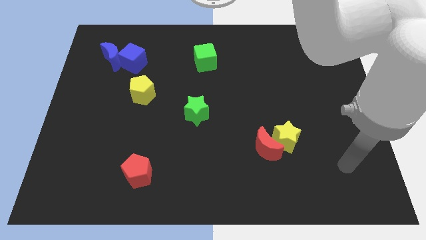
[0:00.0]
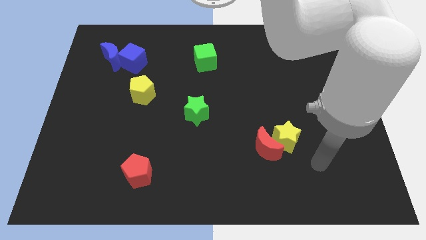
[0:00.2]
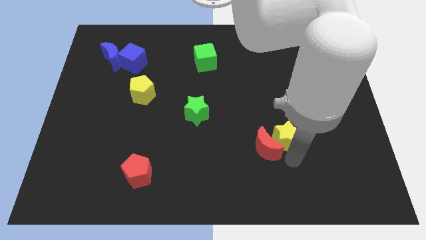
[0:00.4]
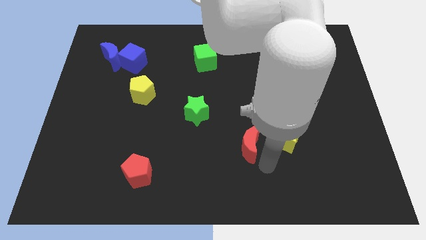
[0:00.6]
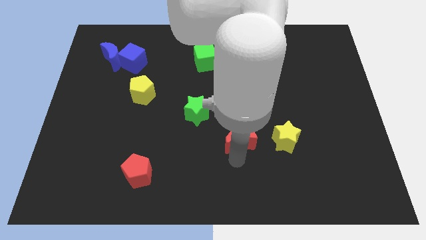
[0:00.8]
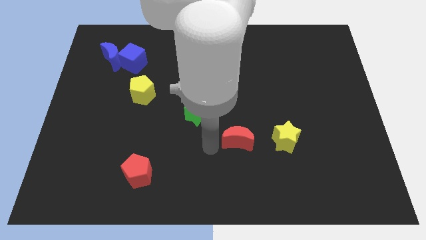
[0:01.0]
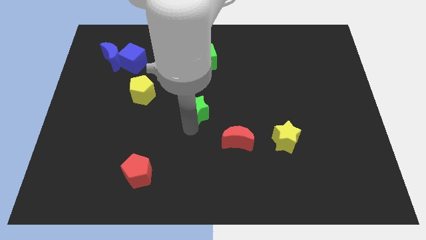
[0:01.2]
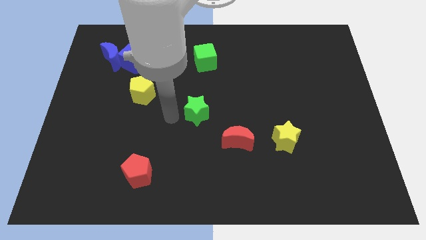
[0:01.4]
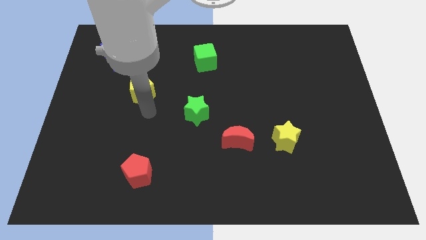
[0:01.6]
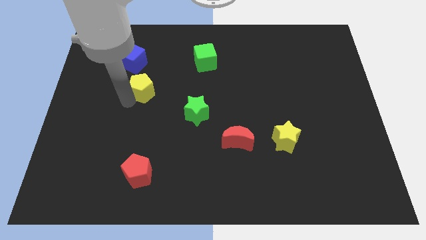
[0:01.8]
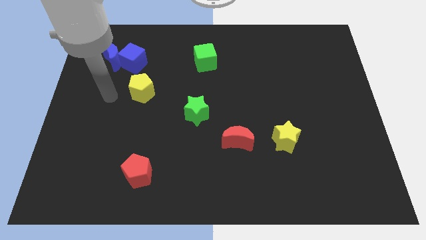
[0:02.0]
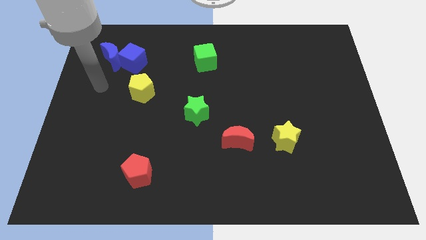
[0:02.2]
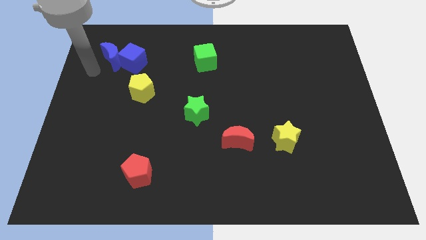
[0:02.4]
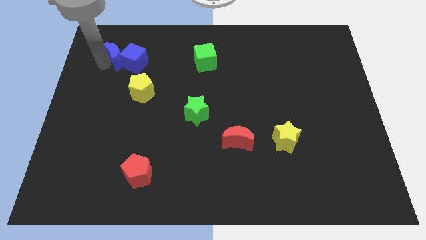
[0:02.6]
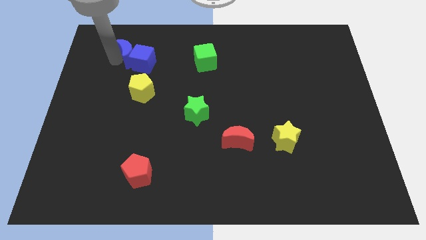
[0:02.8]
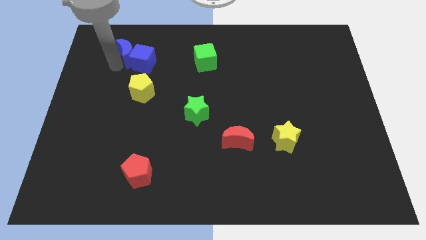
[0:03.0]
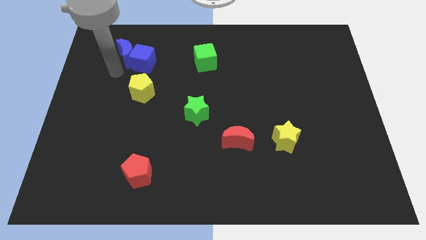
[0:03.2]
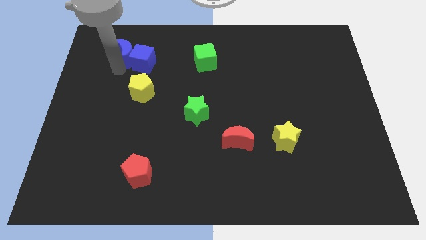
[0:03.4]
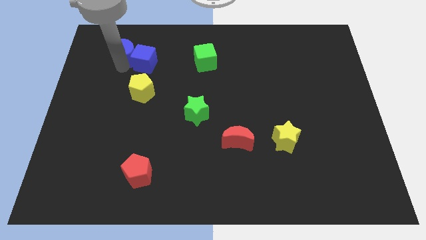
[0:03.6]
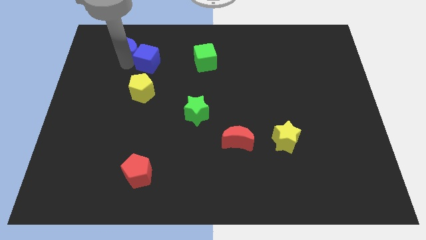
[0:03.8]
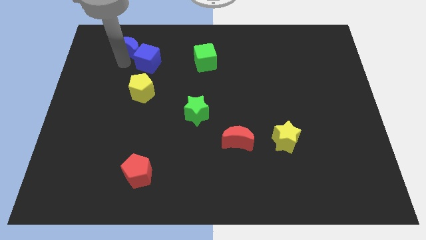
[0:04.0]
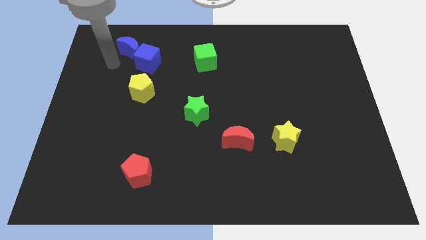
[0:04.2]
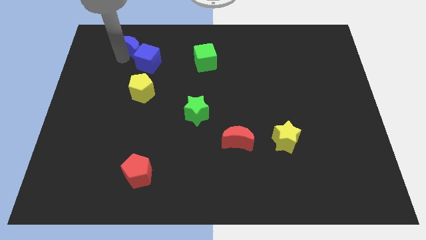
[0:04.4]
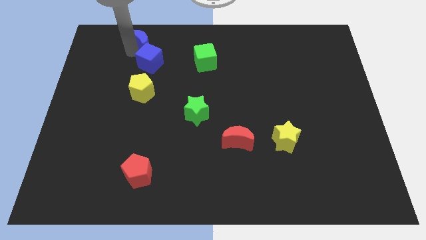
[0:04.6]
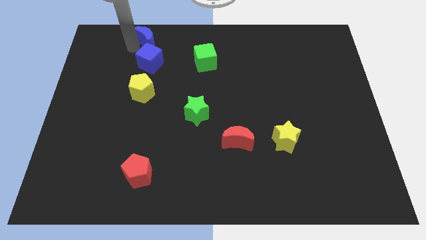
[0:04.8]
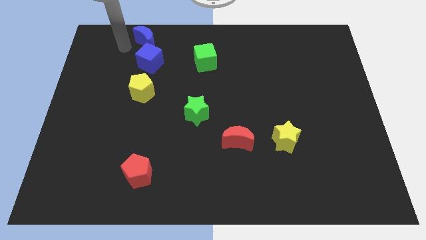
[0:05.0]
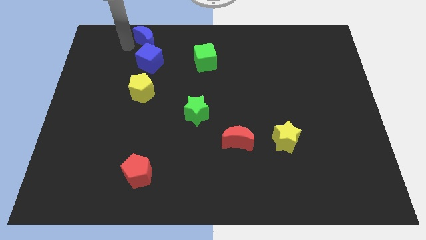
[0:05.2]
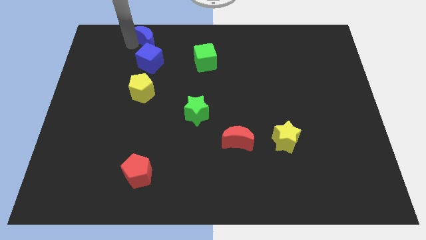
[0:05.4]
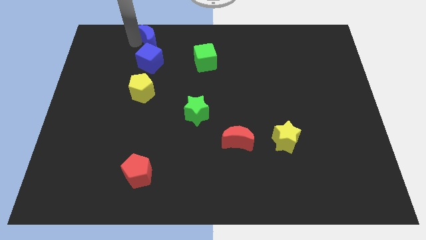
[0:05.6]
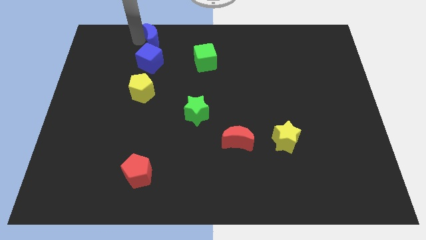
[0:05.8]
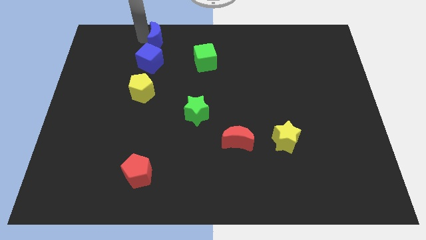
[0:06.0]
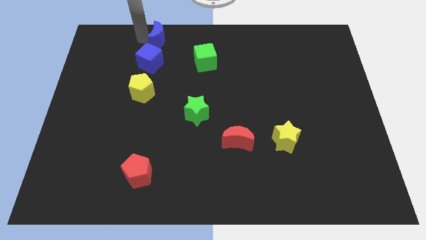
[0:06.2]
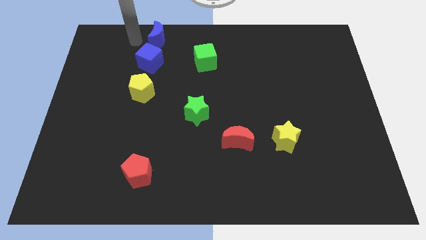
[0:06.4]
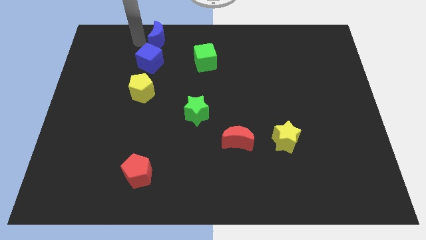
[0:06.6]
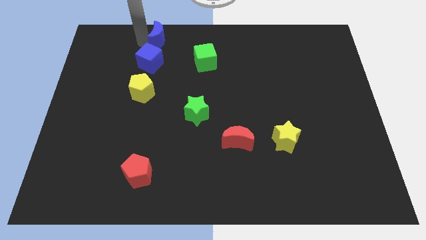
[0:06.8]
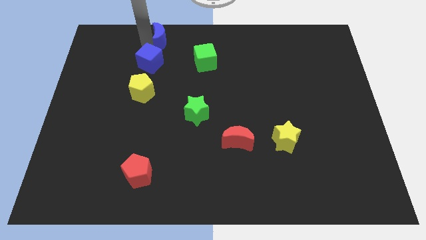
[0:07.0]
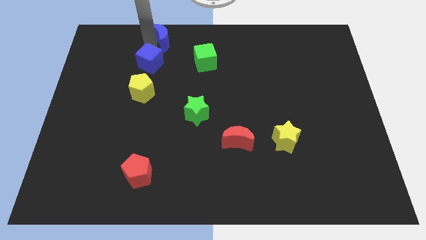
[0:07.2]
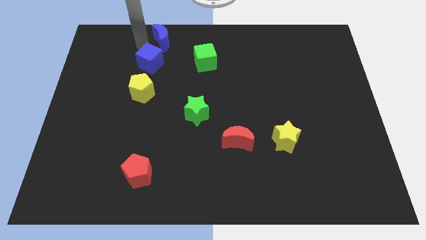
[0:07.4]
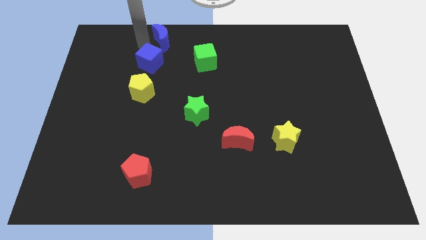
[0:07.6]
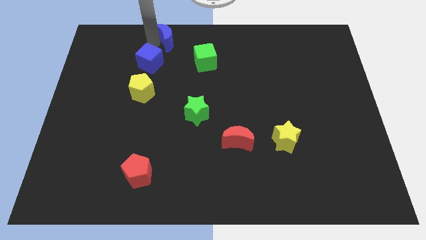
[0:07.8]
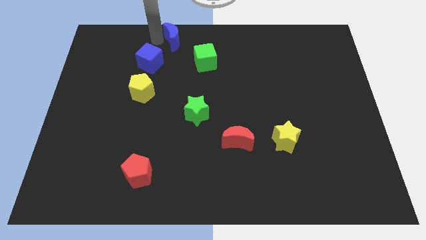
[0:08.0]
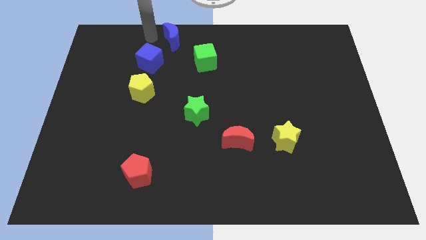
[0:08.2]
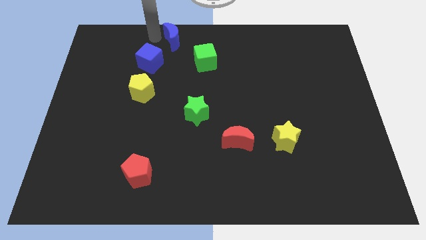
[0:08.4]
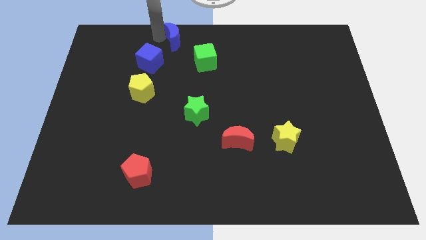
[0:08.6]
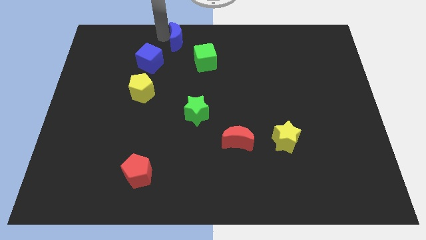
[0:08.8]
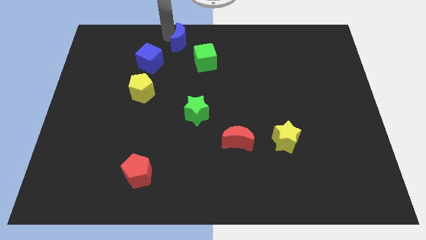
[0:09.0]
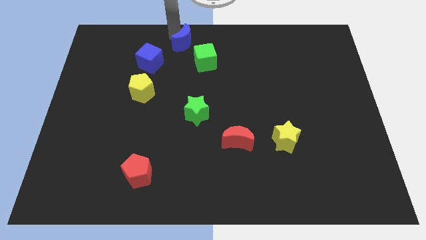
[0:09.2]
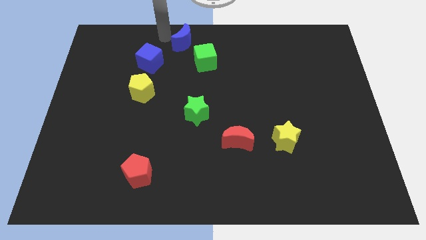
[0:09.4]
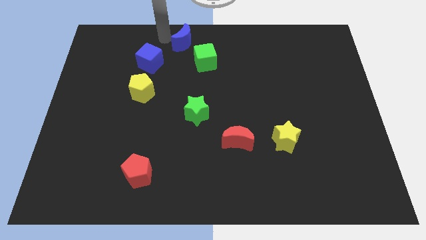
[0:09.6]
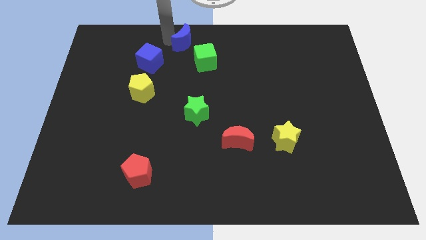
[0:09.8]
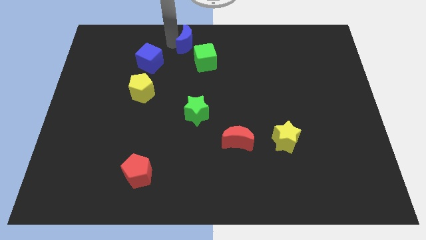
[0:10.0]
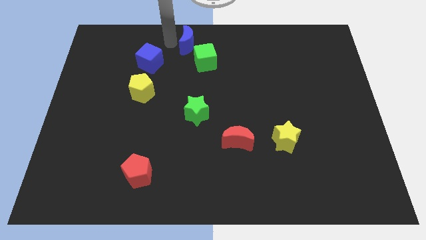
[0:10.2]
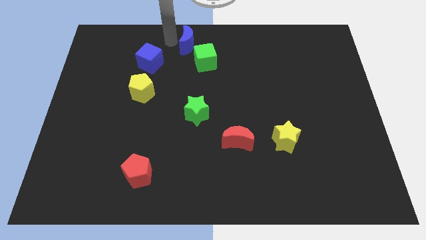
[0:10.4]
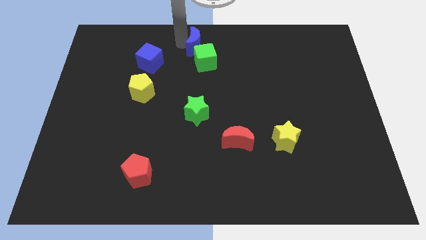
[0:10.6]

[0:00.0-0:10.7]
slide the blue moon to the right

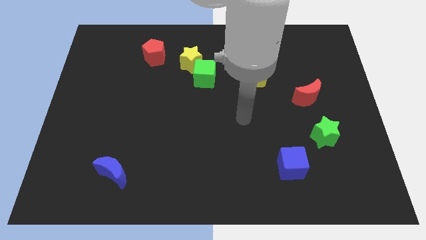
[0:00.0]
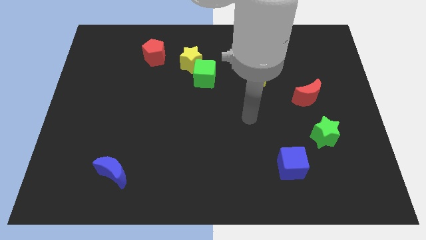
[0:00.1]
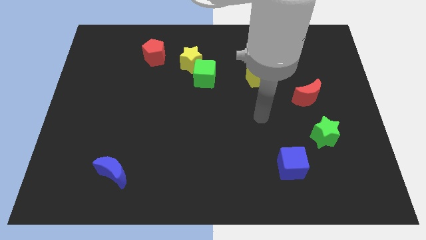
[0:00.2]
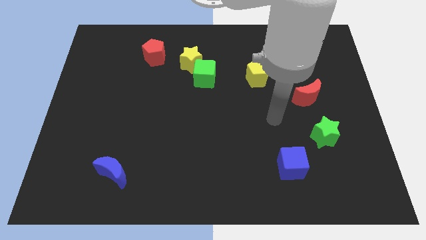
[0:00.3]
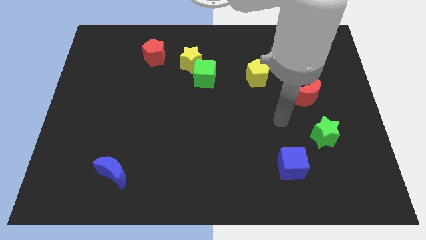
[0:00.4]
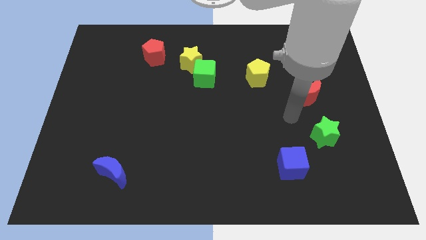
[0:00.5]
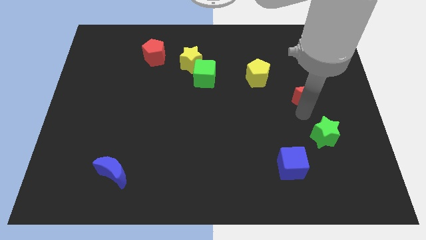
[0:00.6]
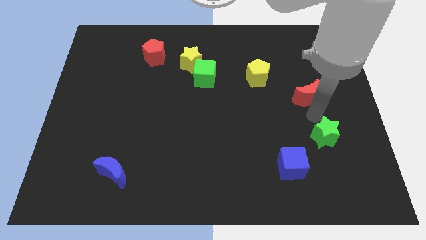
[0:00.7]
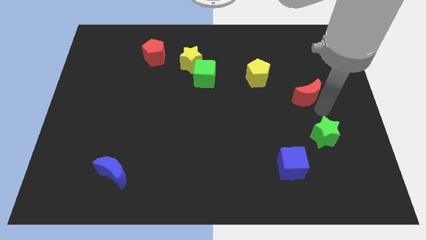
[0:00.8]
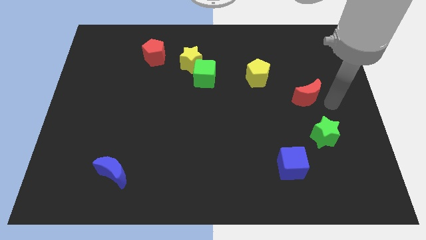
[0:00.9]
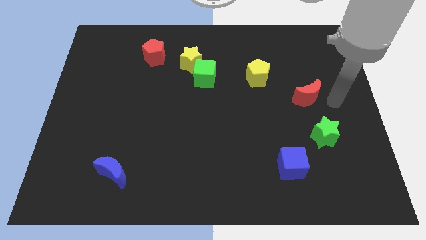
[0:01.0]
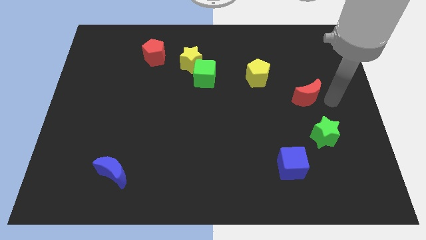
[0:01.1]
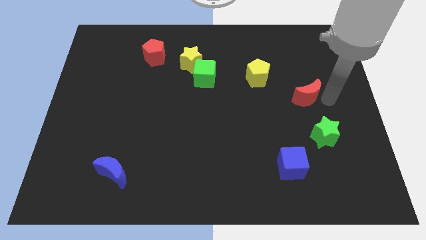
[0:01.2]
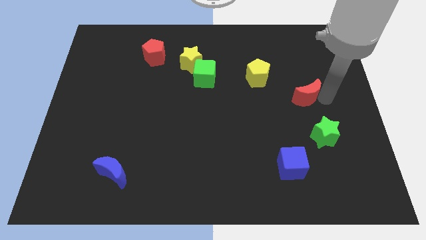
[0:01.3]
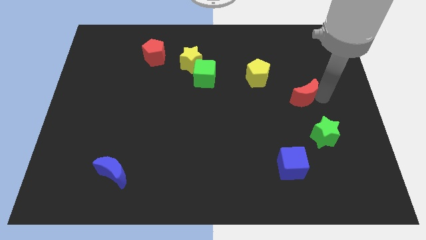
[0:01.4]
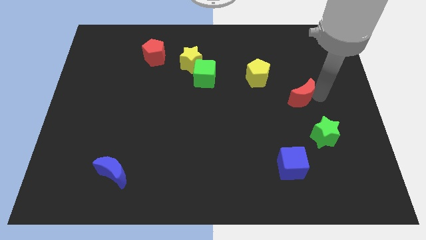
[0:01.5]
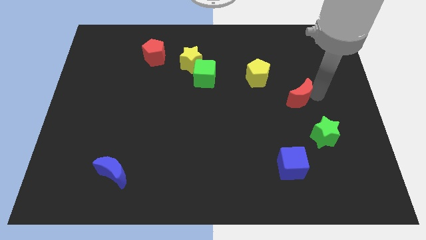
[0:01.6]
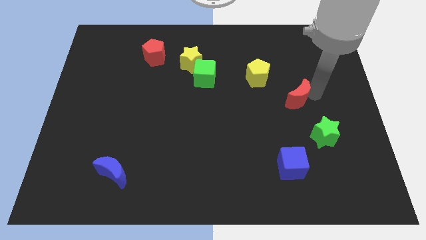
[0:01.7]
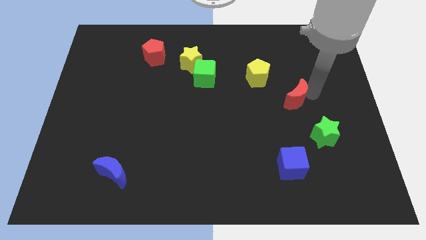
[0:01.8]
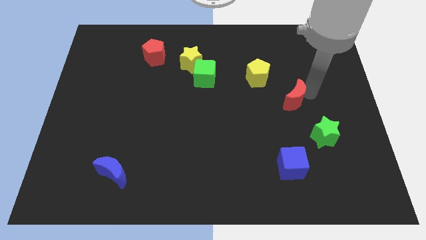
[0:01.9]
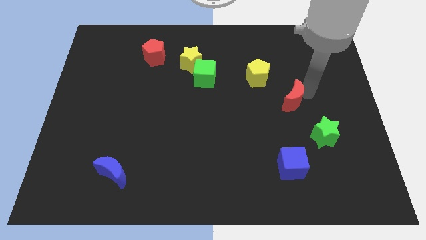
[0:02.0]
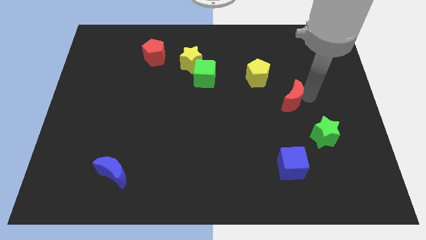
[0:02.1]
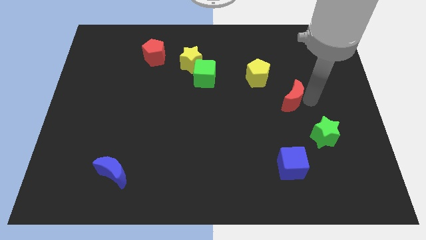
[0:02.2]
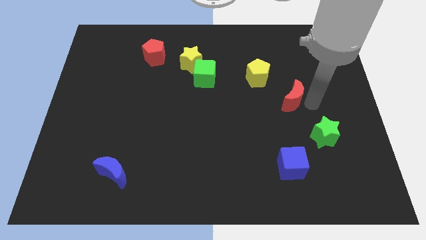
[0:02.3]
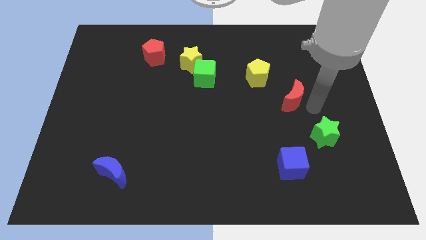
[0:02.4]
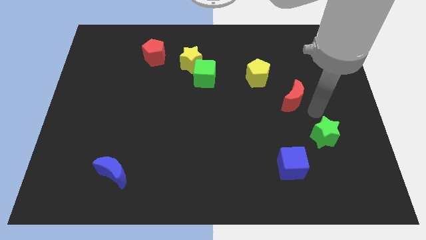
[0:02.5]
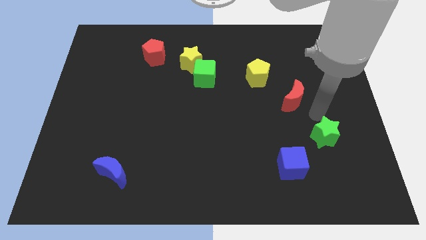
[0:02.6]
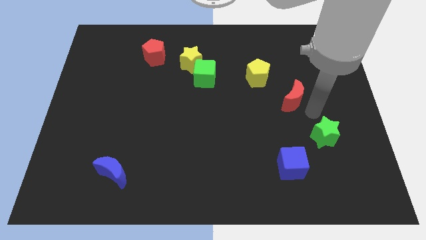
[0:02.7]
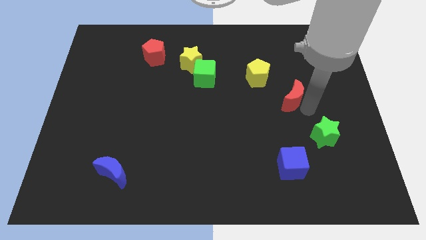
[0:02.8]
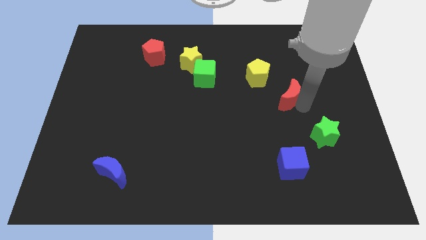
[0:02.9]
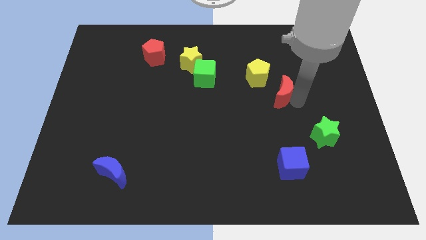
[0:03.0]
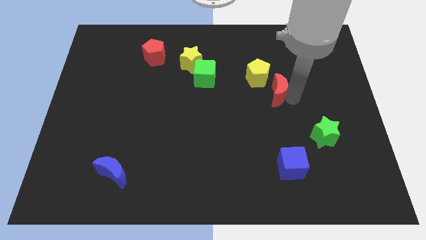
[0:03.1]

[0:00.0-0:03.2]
push the red moon to the left a little bit
